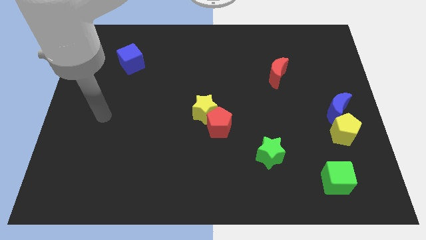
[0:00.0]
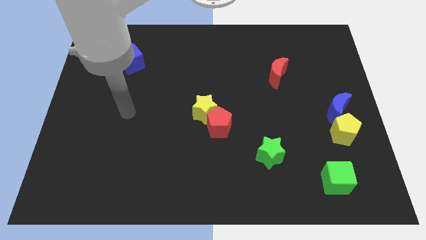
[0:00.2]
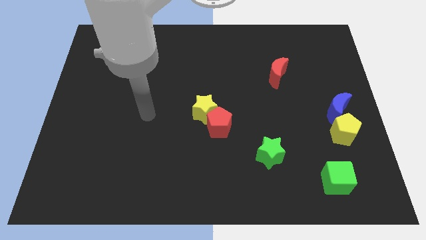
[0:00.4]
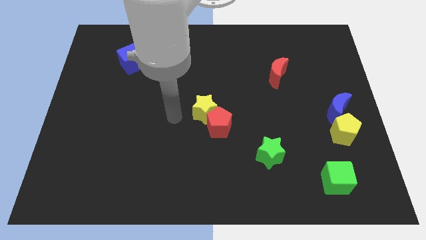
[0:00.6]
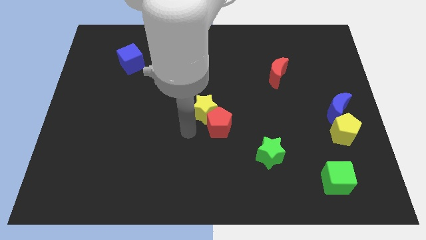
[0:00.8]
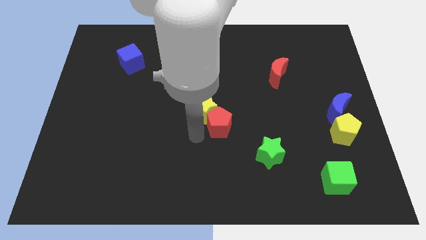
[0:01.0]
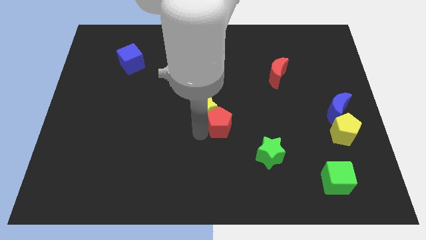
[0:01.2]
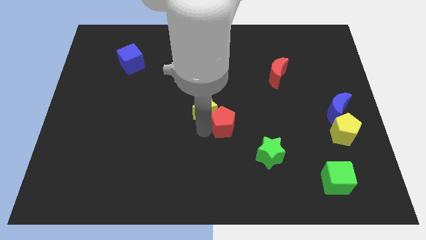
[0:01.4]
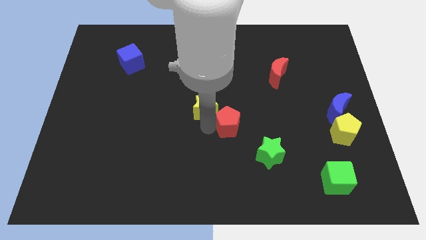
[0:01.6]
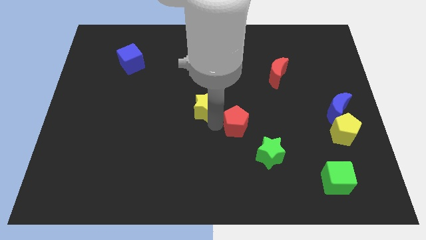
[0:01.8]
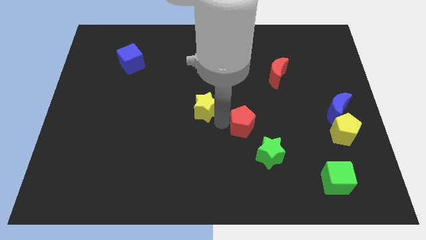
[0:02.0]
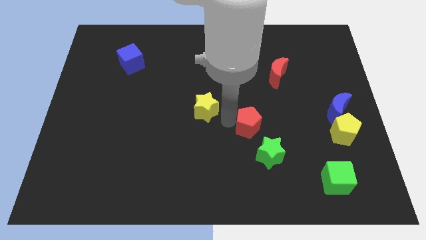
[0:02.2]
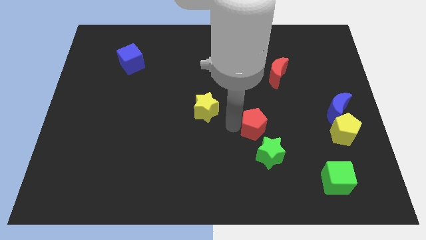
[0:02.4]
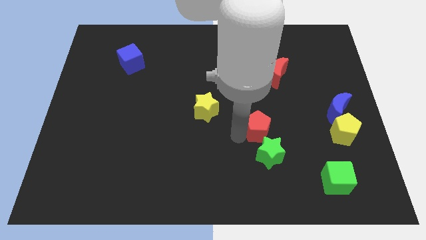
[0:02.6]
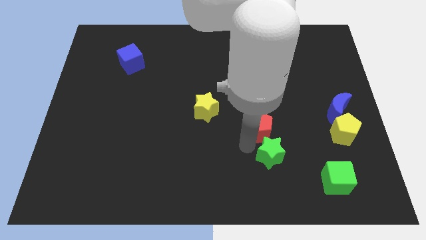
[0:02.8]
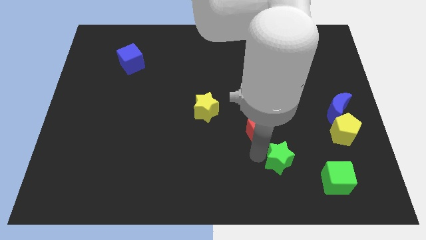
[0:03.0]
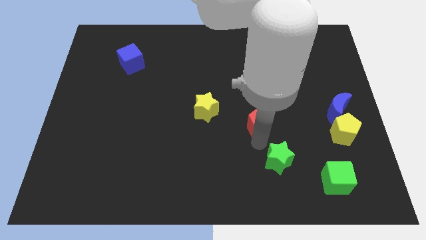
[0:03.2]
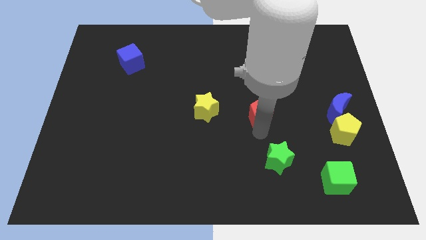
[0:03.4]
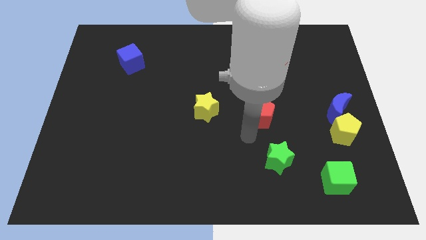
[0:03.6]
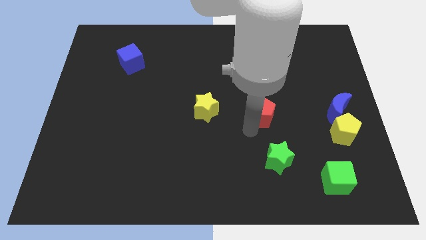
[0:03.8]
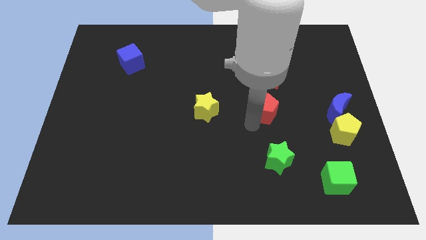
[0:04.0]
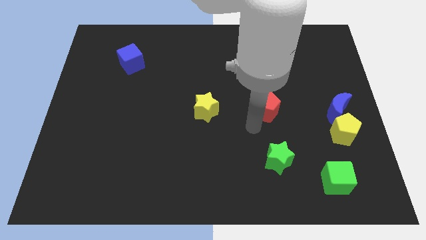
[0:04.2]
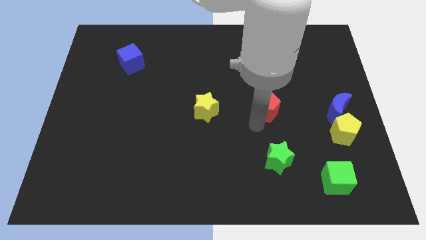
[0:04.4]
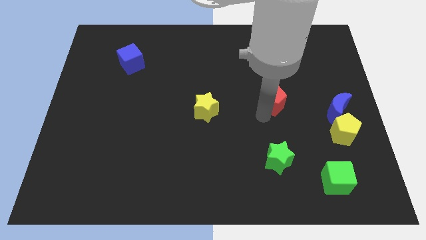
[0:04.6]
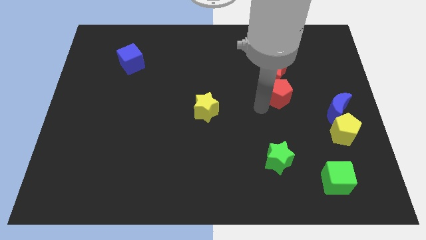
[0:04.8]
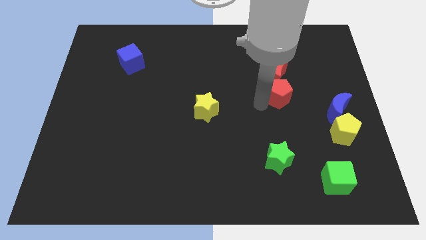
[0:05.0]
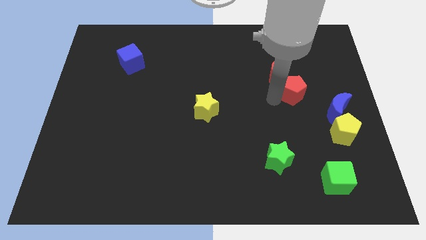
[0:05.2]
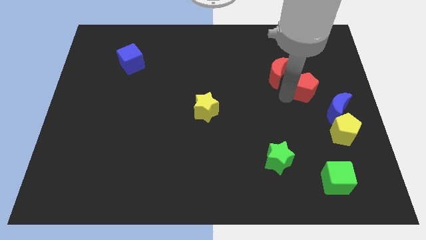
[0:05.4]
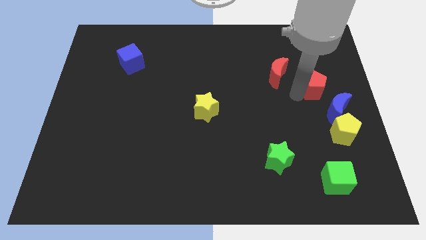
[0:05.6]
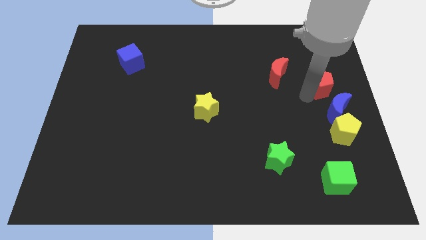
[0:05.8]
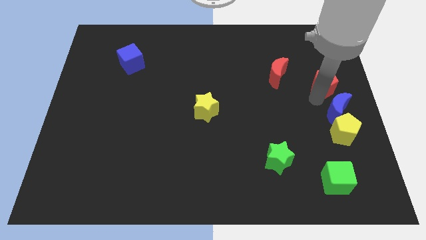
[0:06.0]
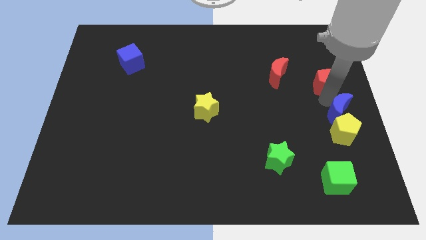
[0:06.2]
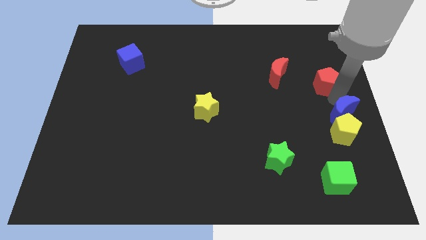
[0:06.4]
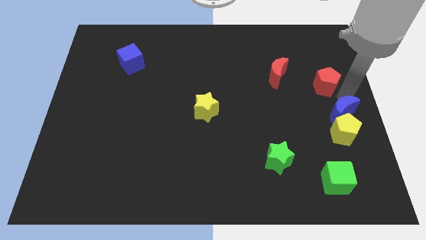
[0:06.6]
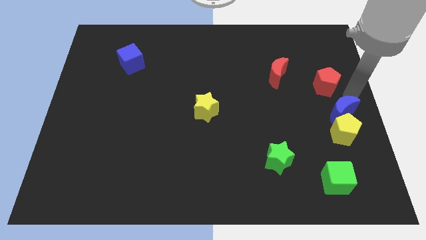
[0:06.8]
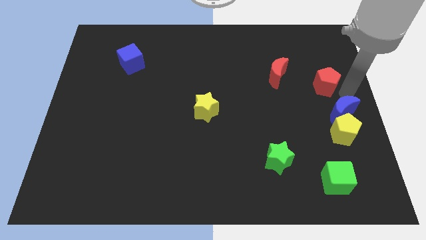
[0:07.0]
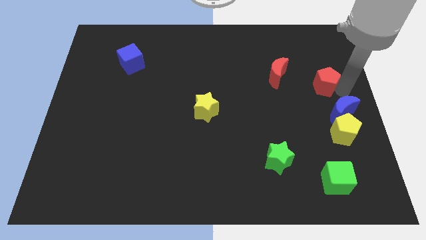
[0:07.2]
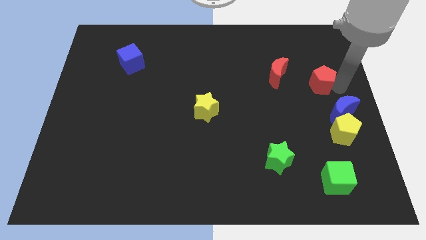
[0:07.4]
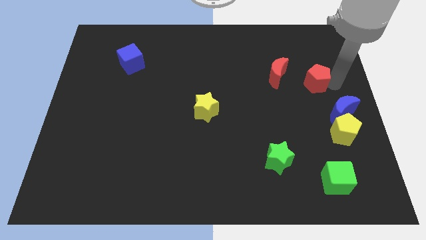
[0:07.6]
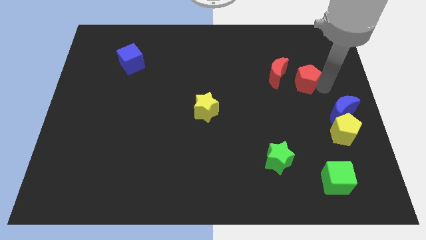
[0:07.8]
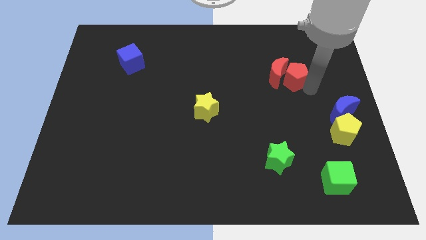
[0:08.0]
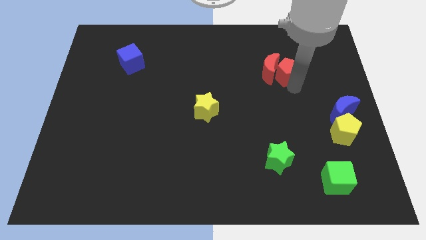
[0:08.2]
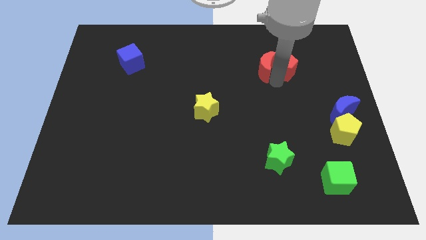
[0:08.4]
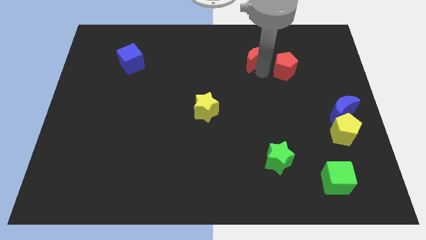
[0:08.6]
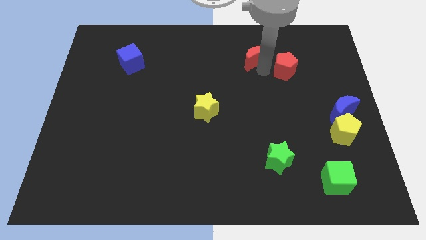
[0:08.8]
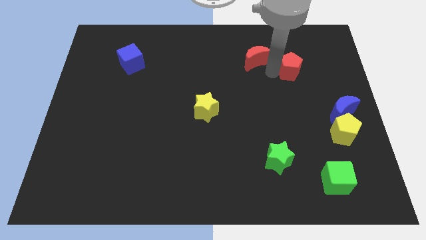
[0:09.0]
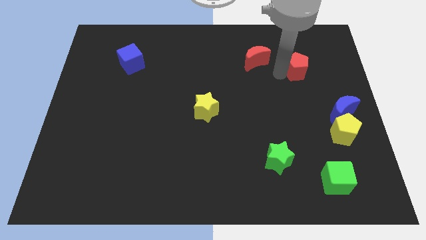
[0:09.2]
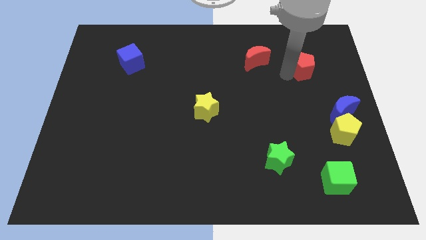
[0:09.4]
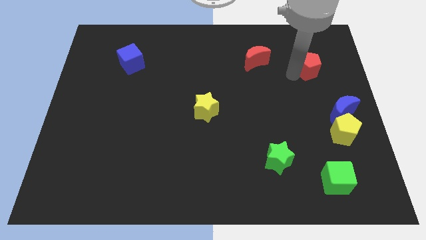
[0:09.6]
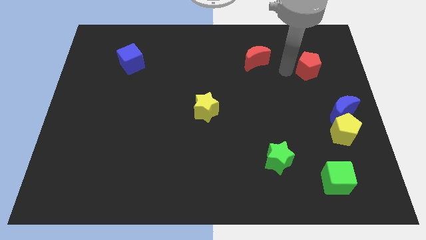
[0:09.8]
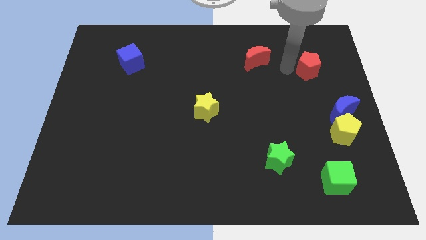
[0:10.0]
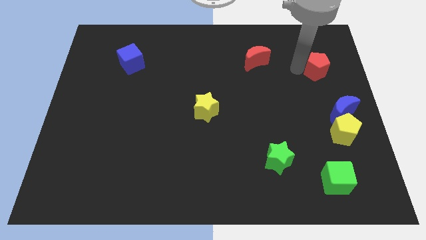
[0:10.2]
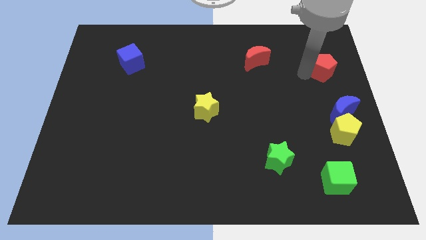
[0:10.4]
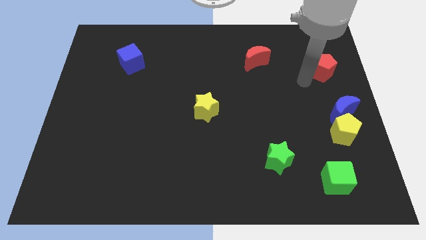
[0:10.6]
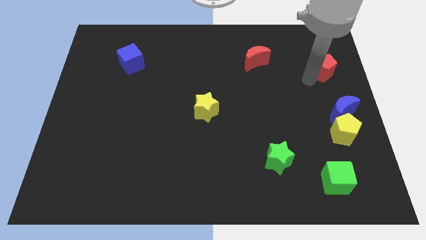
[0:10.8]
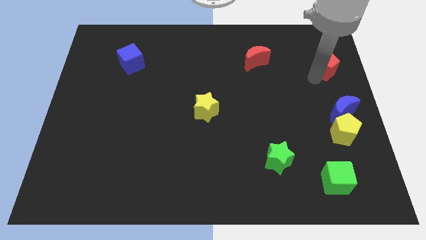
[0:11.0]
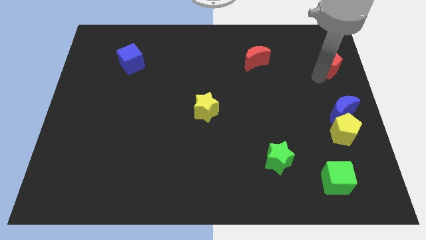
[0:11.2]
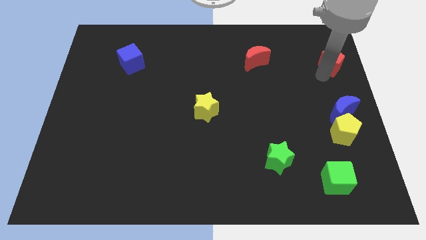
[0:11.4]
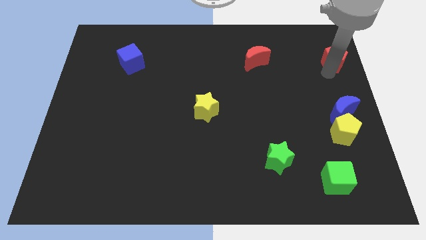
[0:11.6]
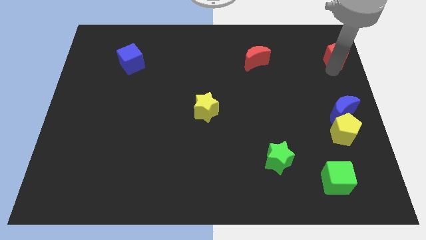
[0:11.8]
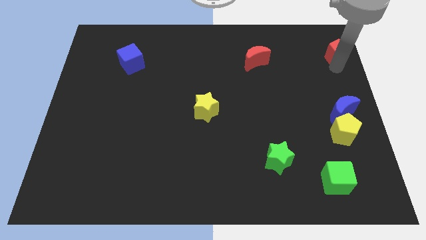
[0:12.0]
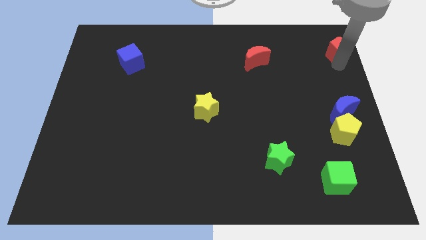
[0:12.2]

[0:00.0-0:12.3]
put the red pentagon to the upper right corner

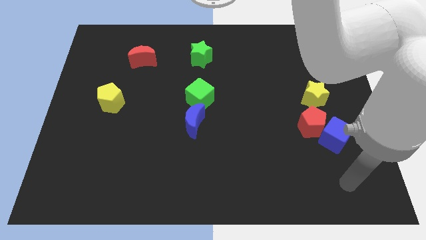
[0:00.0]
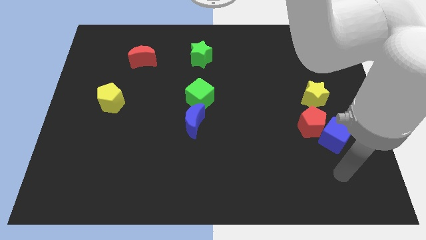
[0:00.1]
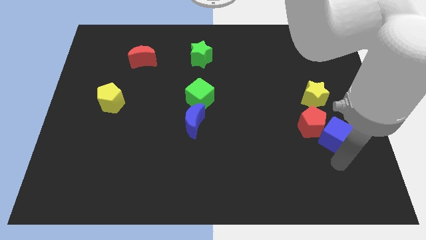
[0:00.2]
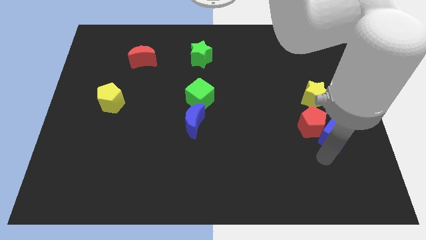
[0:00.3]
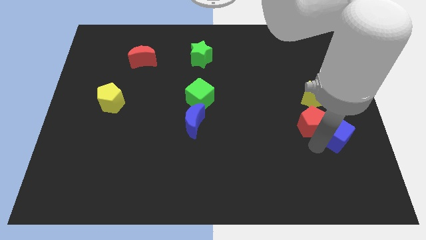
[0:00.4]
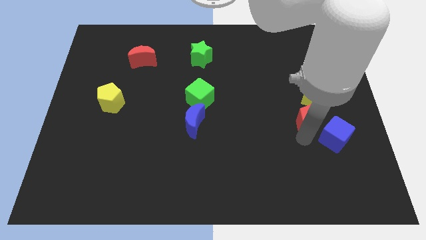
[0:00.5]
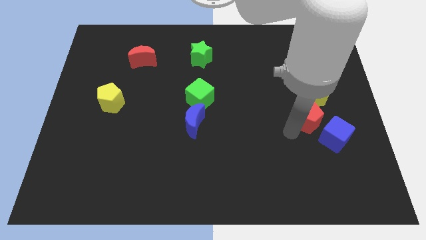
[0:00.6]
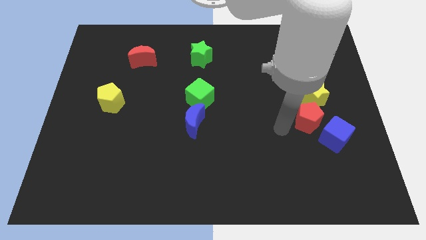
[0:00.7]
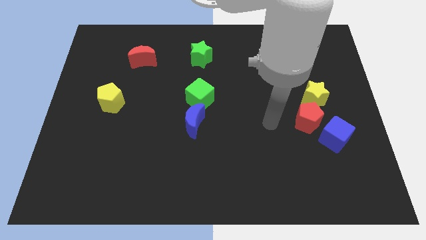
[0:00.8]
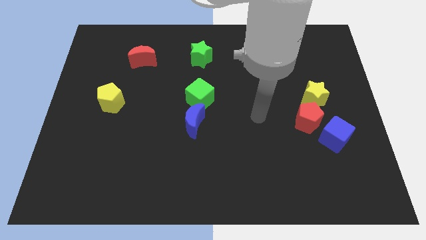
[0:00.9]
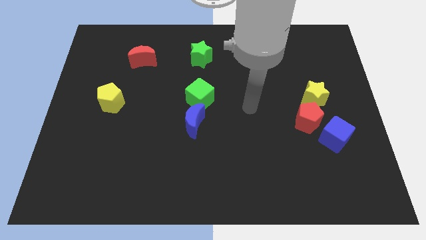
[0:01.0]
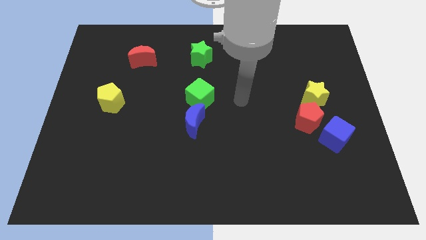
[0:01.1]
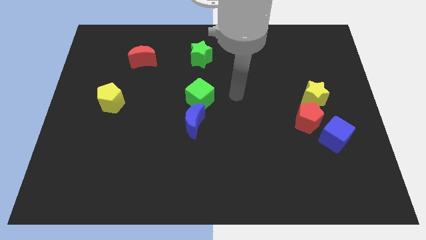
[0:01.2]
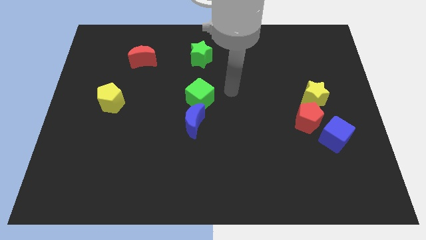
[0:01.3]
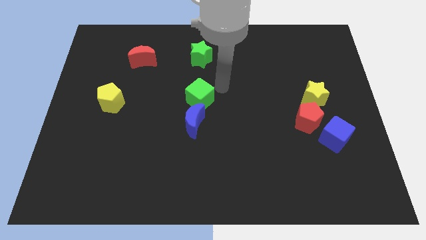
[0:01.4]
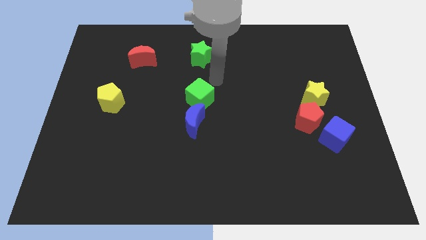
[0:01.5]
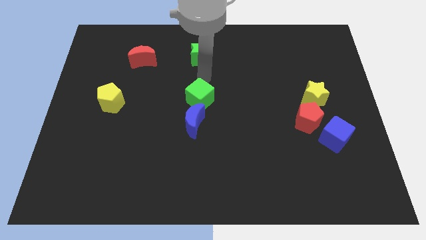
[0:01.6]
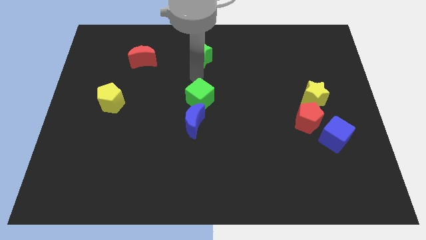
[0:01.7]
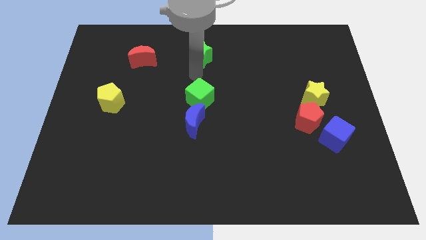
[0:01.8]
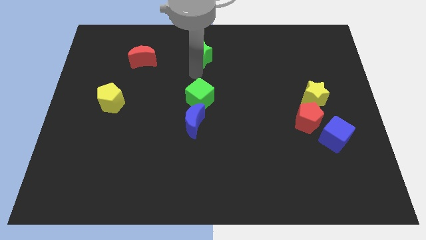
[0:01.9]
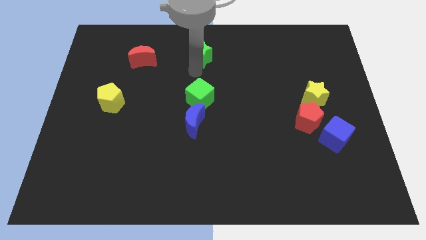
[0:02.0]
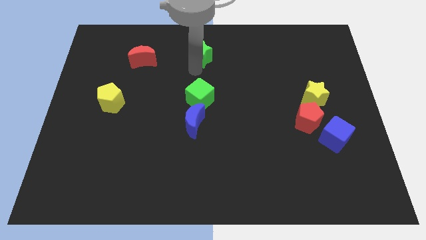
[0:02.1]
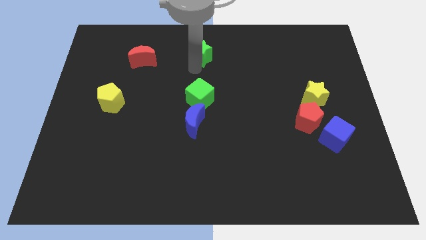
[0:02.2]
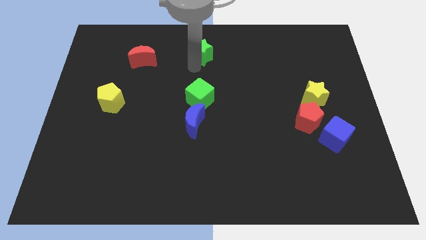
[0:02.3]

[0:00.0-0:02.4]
move the green star to the top side
